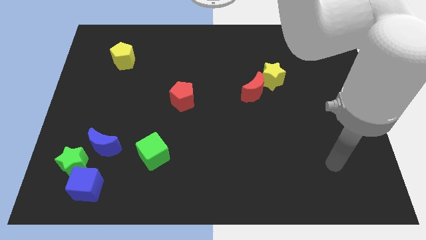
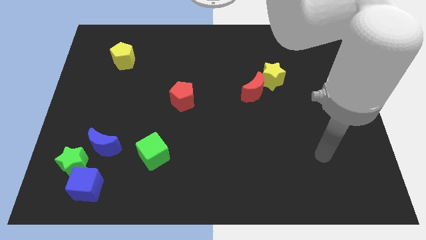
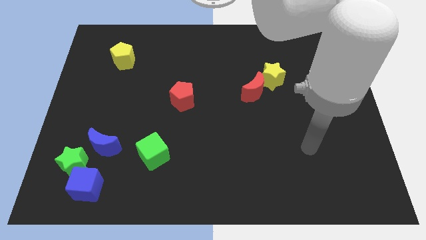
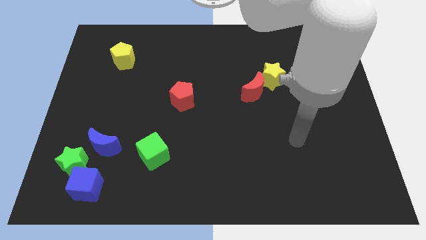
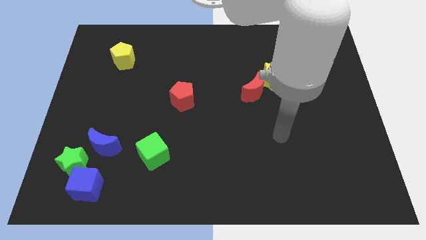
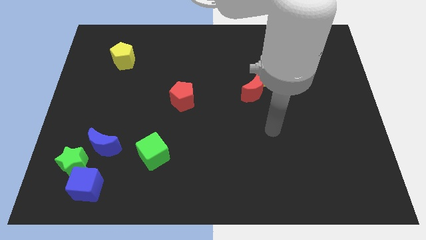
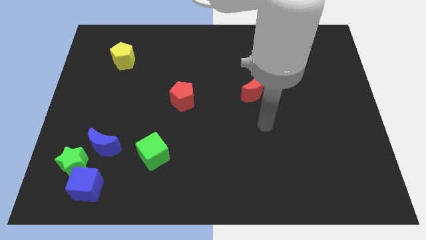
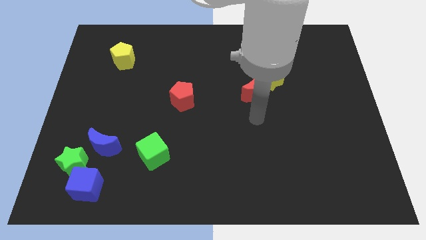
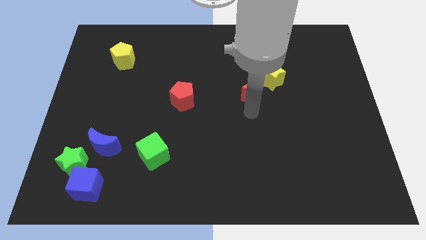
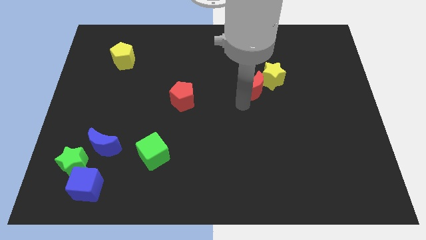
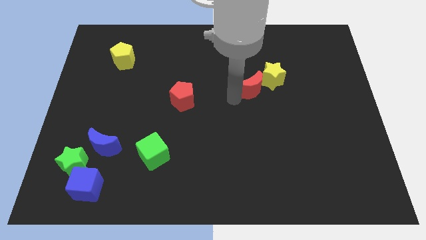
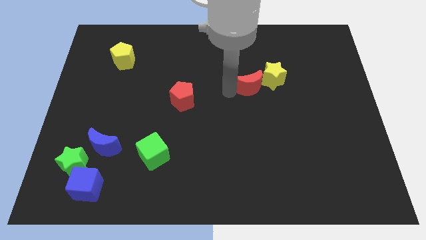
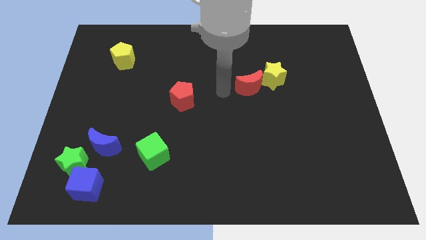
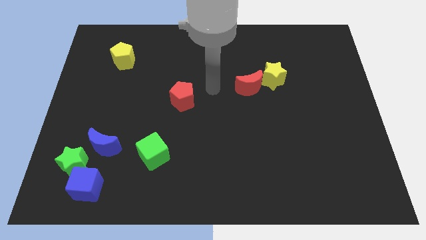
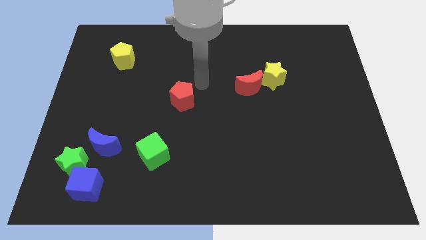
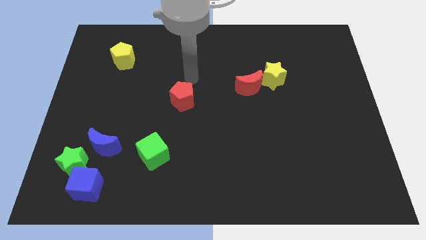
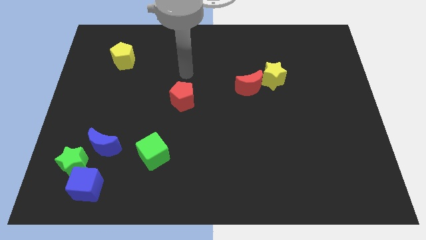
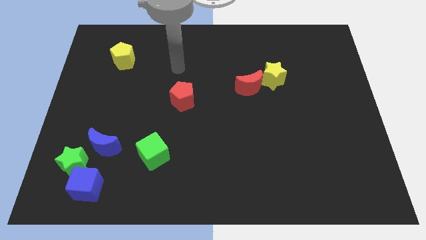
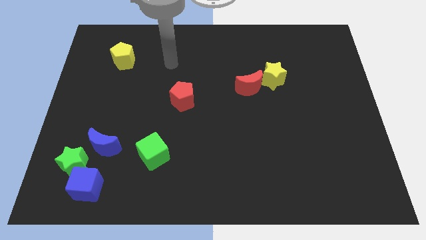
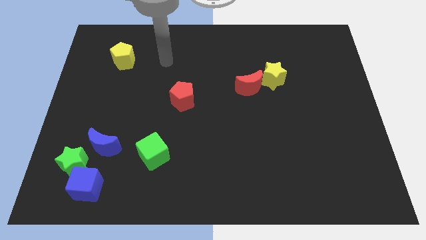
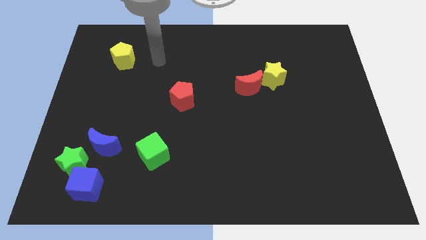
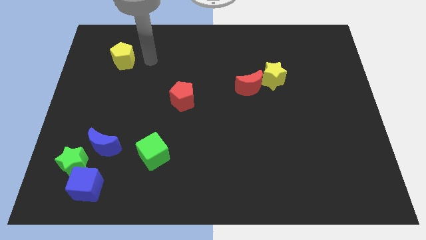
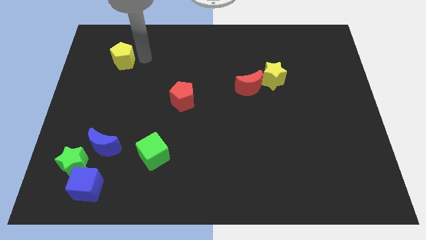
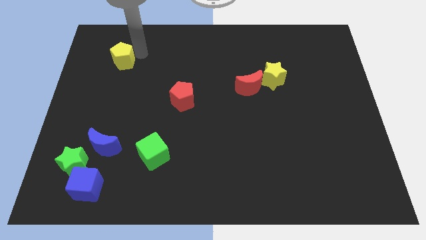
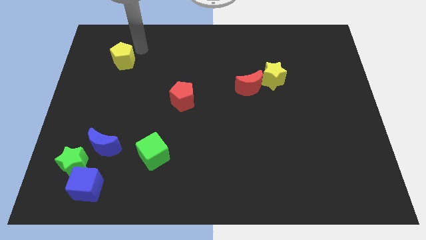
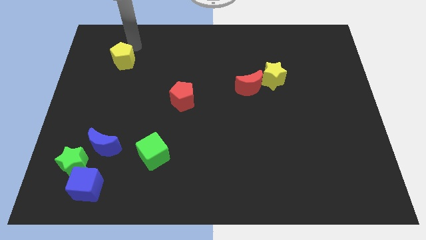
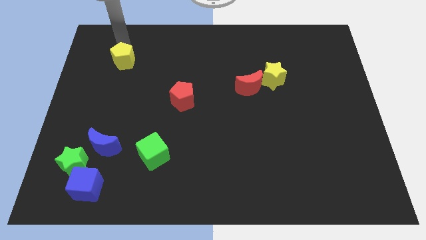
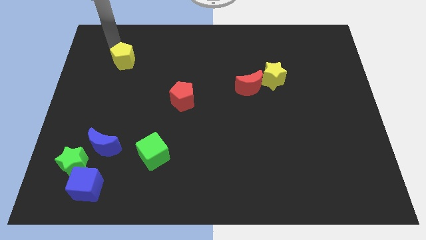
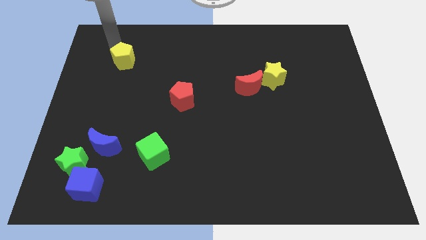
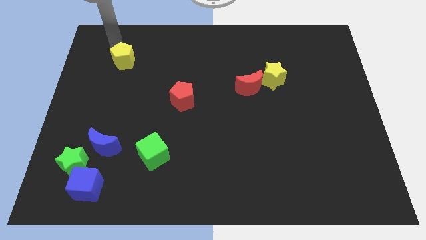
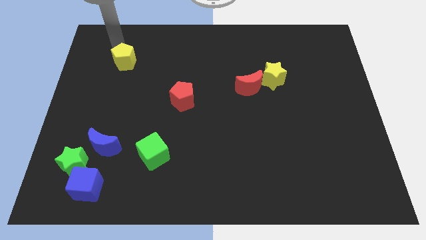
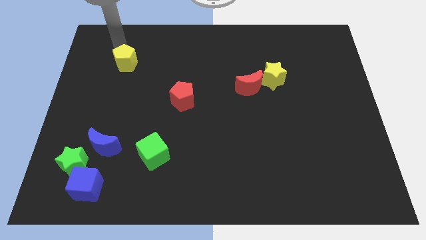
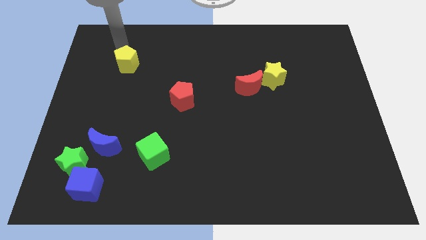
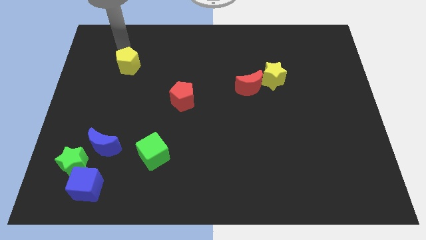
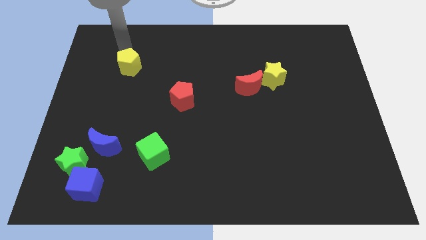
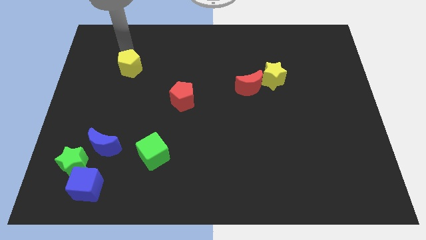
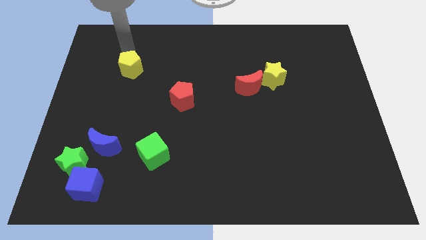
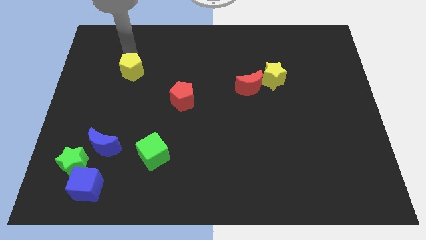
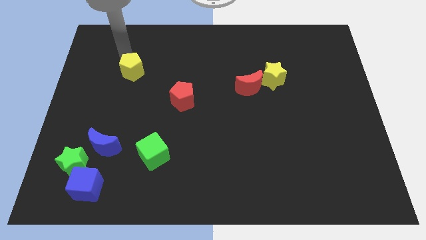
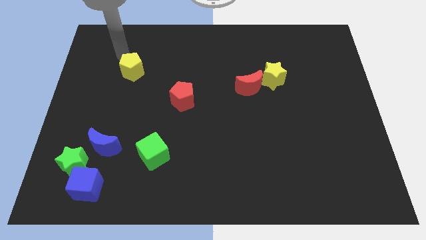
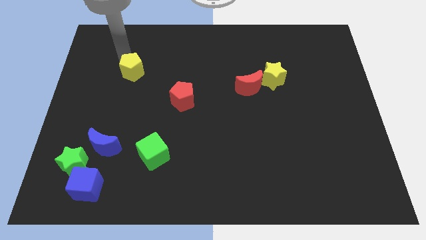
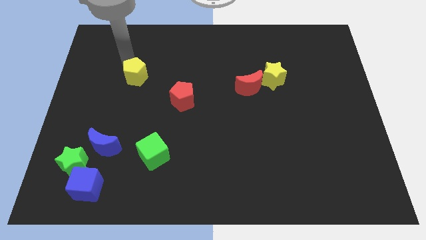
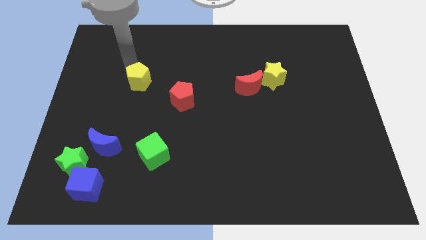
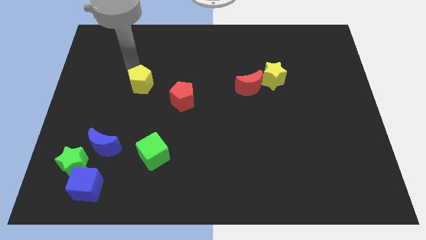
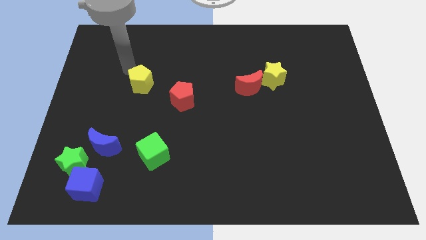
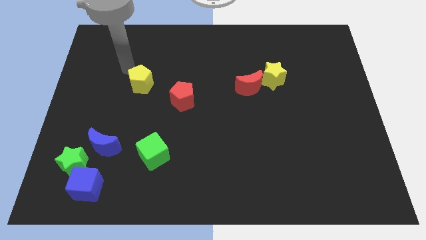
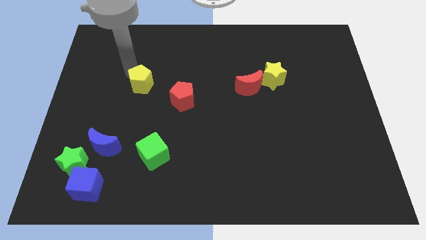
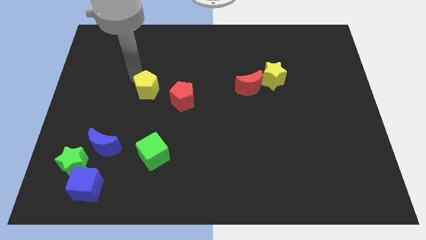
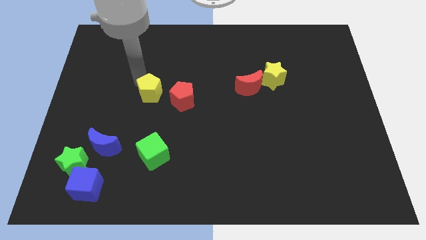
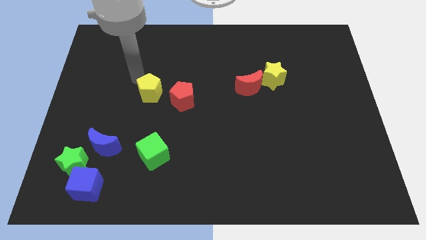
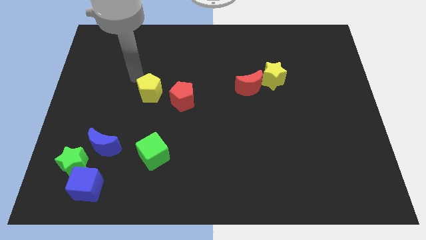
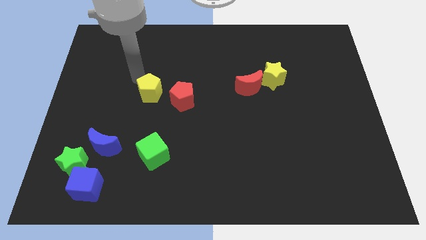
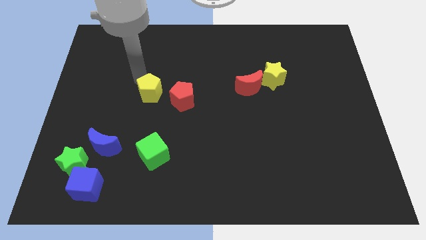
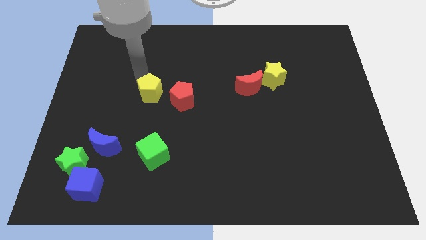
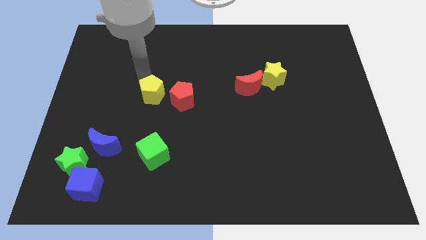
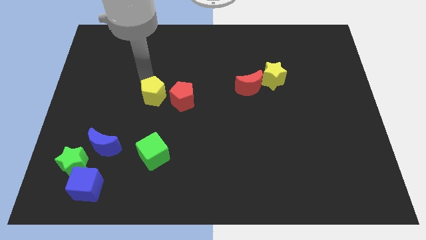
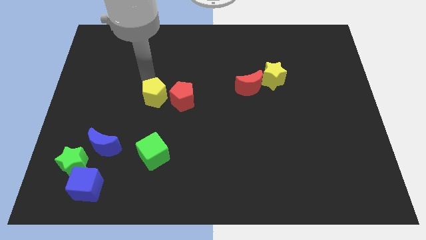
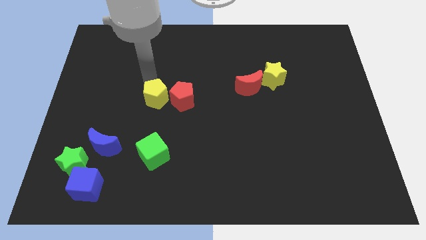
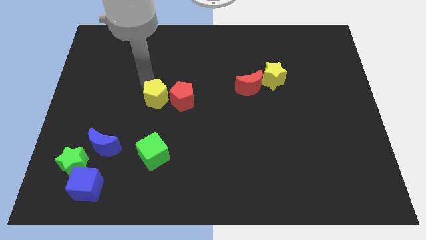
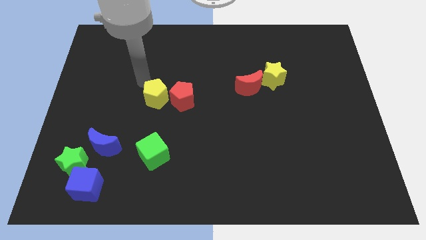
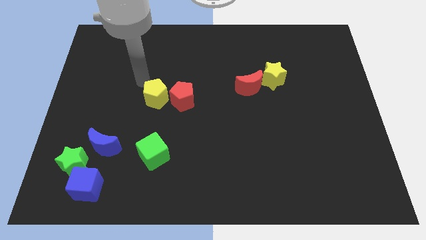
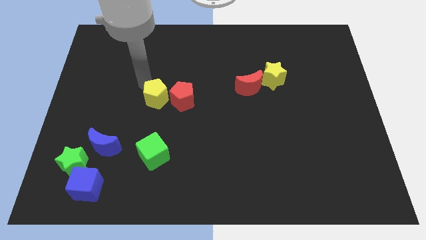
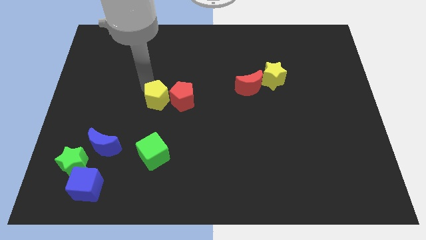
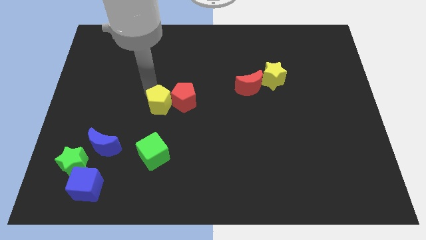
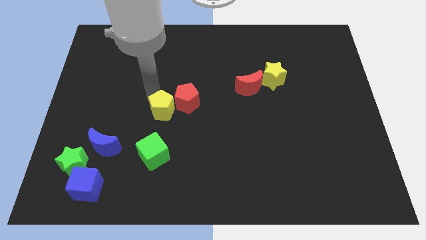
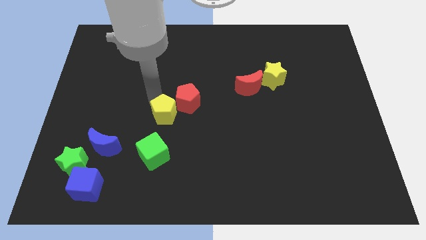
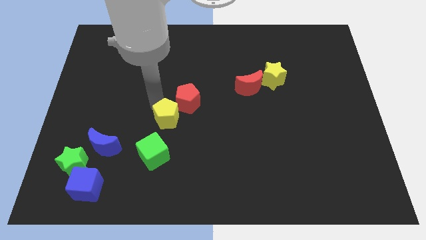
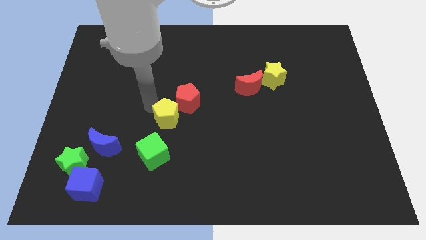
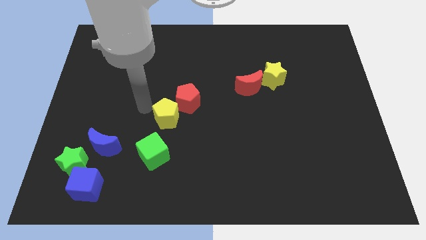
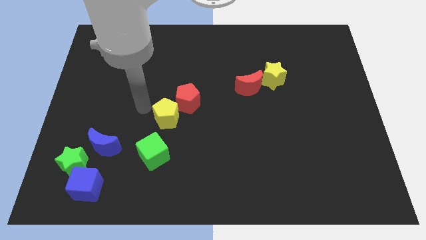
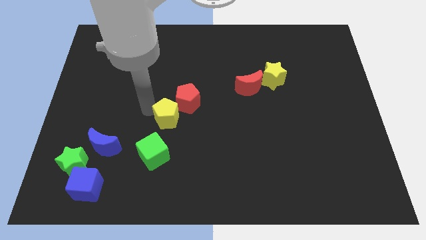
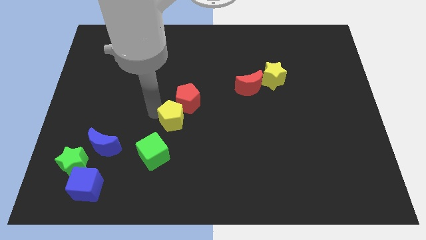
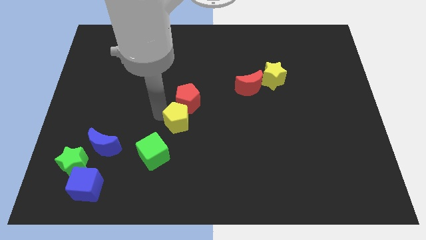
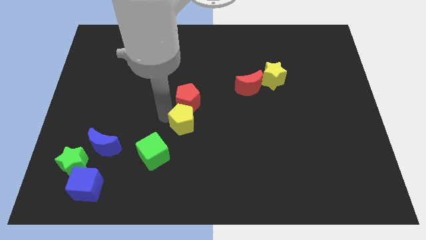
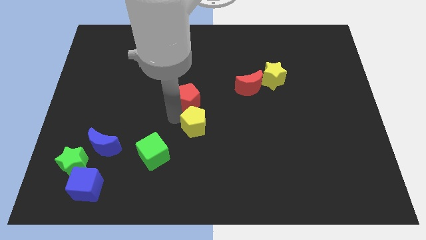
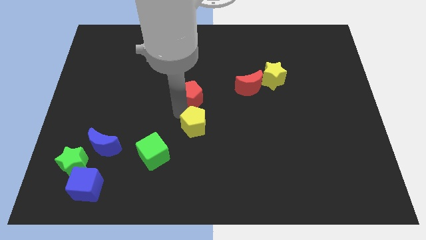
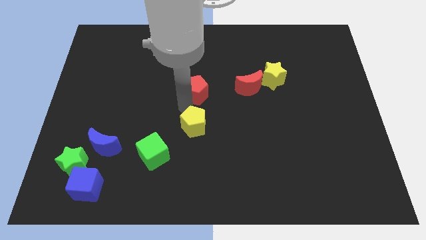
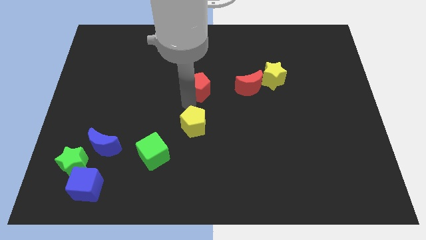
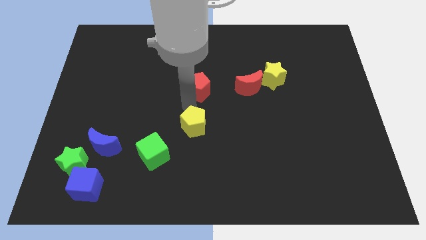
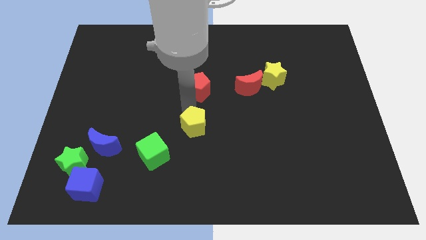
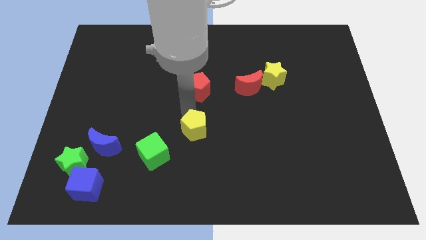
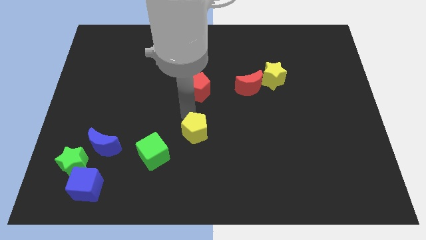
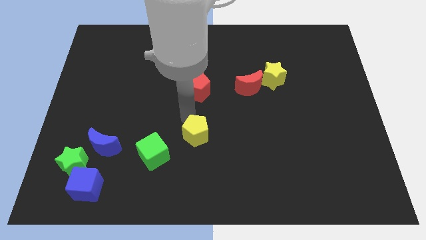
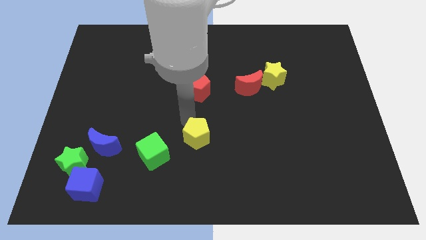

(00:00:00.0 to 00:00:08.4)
move the yellow pentagon just right of the green cube
